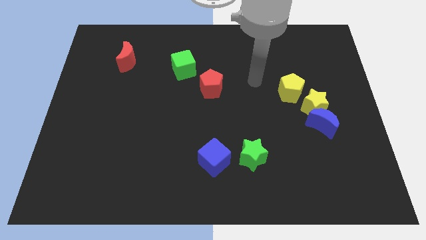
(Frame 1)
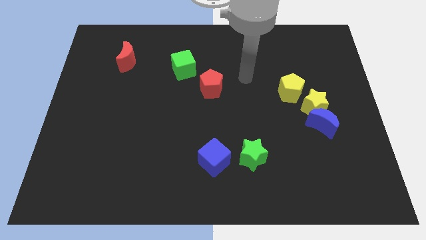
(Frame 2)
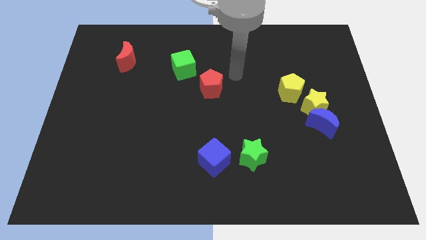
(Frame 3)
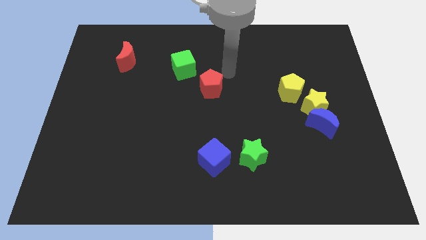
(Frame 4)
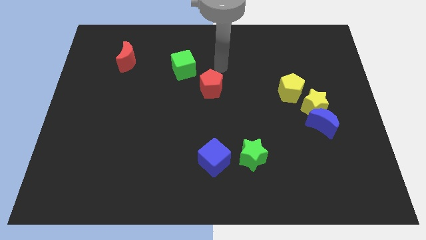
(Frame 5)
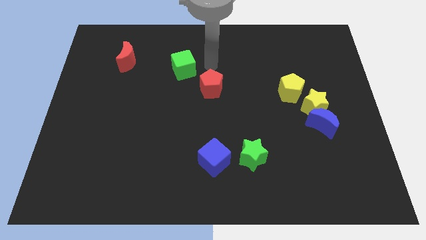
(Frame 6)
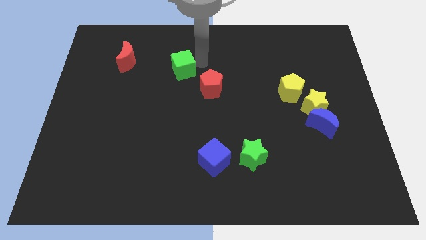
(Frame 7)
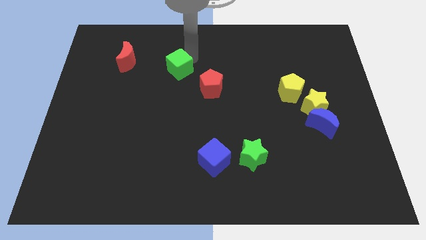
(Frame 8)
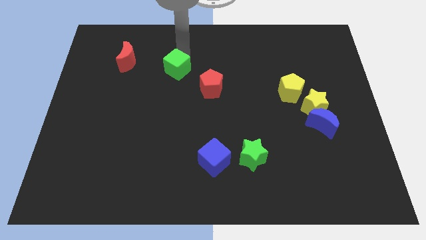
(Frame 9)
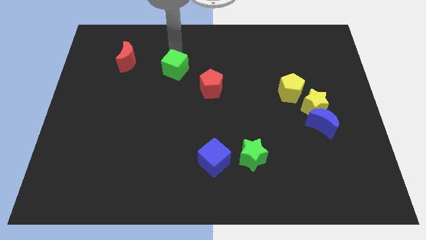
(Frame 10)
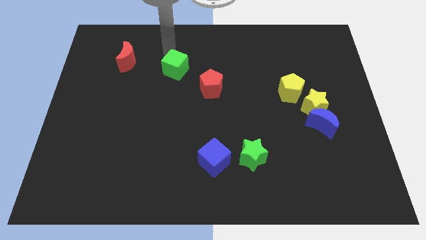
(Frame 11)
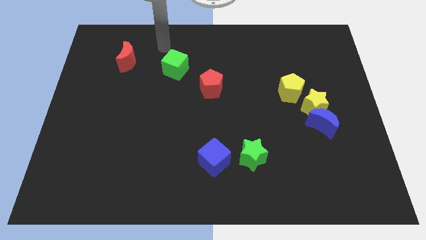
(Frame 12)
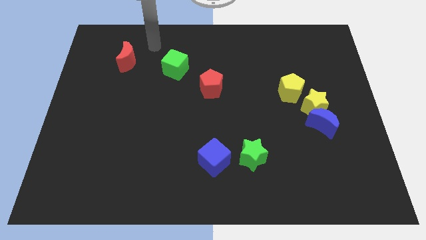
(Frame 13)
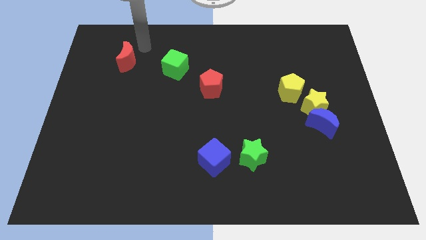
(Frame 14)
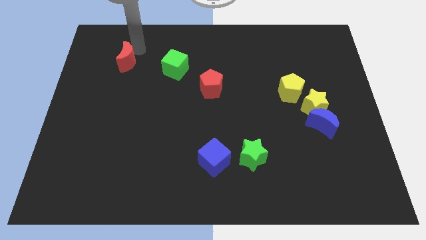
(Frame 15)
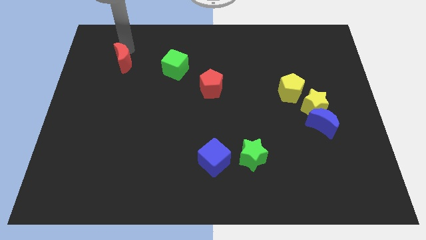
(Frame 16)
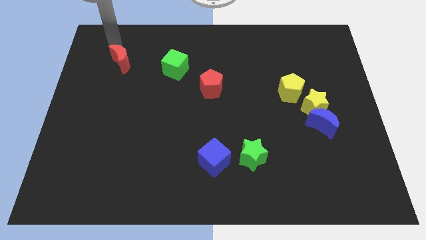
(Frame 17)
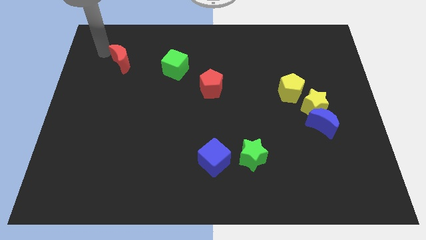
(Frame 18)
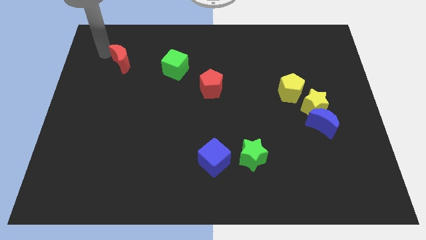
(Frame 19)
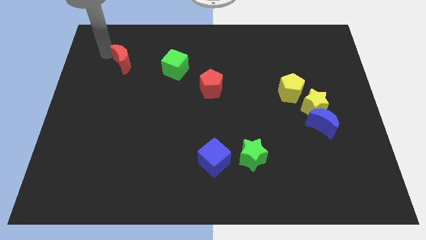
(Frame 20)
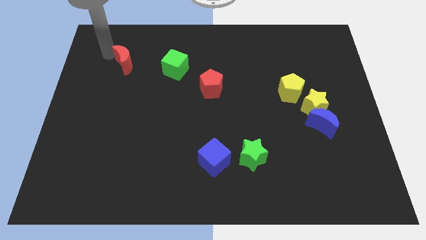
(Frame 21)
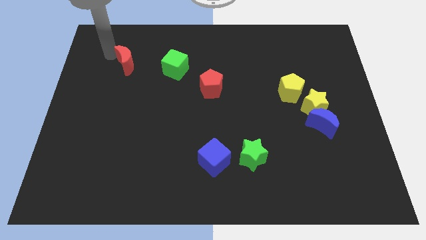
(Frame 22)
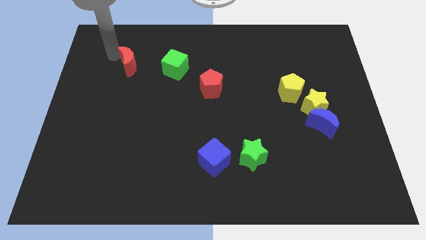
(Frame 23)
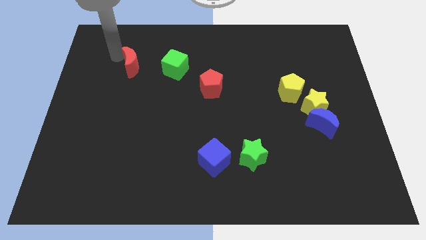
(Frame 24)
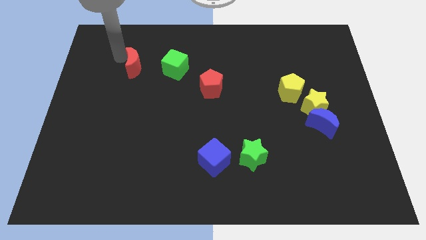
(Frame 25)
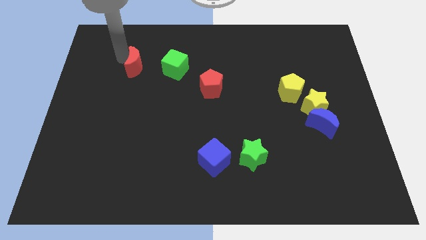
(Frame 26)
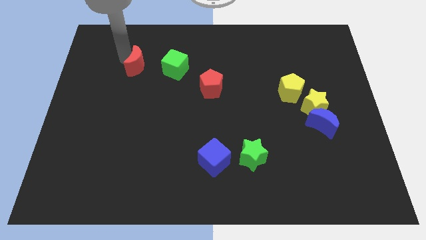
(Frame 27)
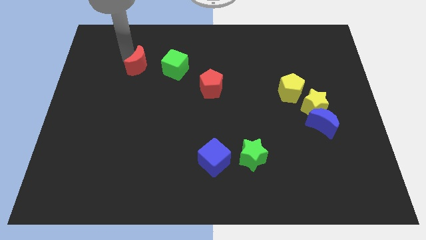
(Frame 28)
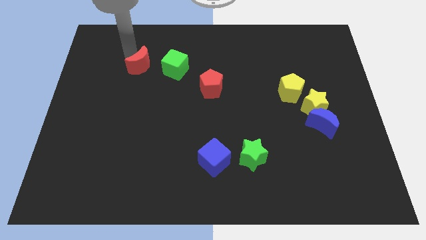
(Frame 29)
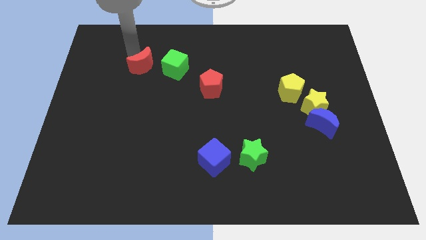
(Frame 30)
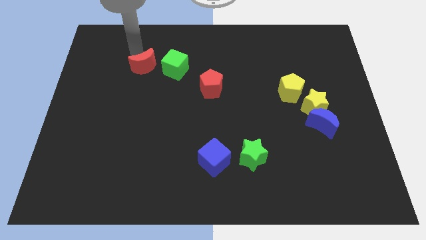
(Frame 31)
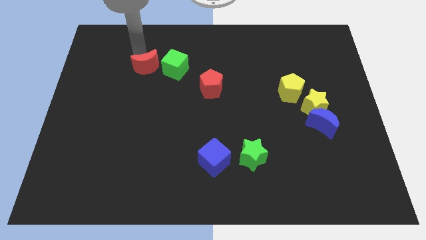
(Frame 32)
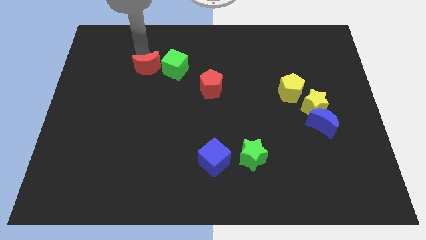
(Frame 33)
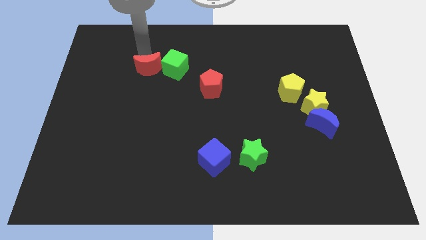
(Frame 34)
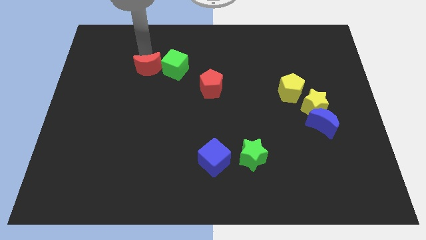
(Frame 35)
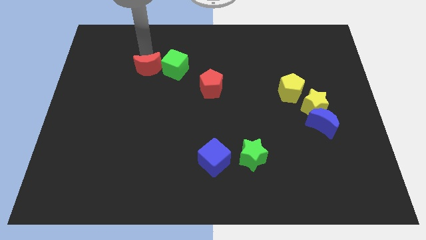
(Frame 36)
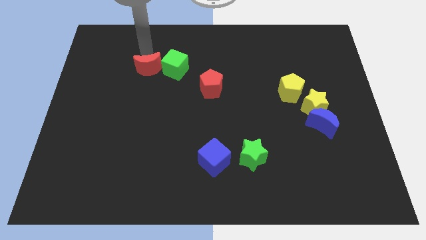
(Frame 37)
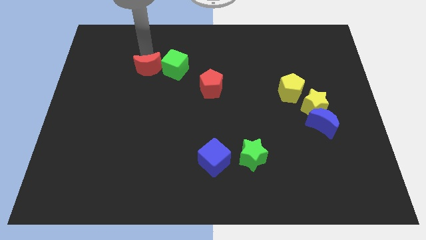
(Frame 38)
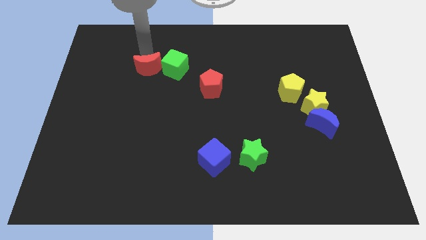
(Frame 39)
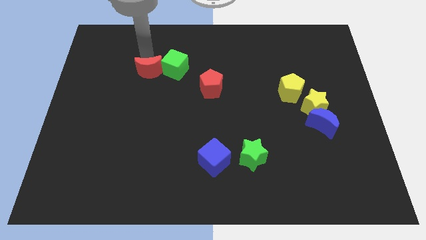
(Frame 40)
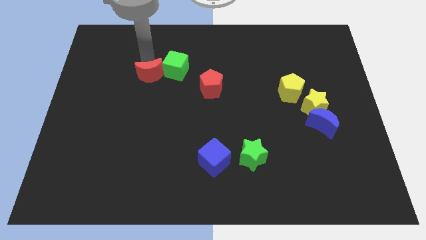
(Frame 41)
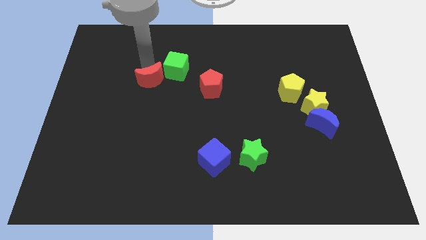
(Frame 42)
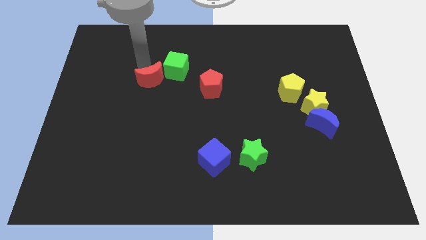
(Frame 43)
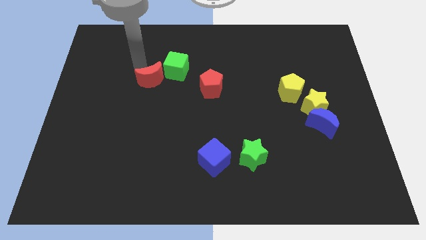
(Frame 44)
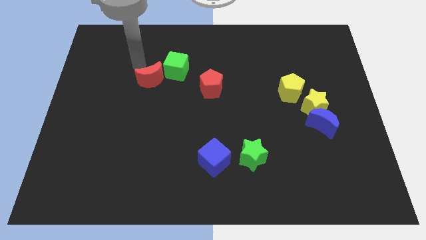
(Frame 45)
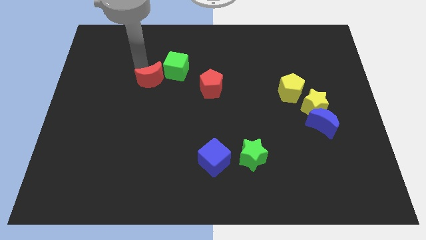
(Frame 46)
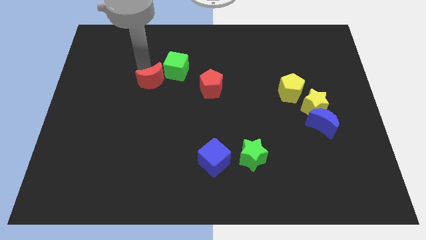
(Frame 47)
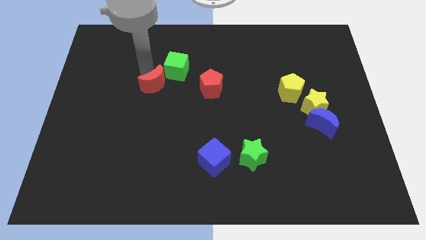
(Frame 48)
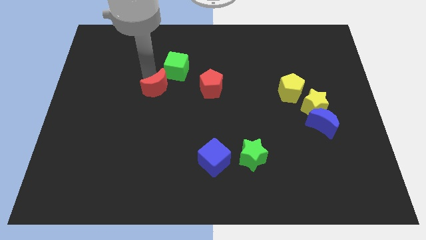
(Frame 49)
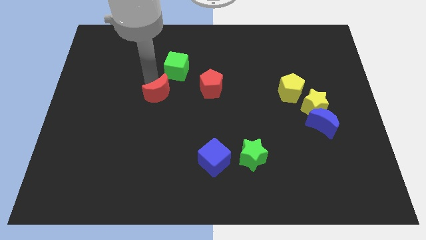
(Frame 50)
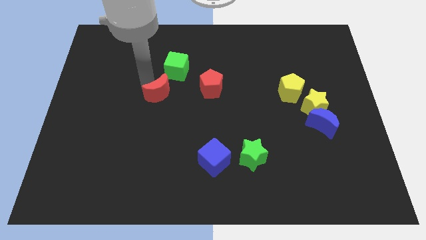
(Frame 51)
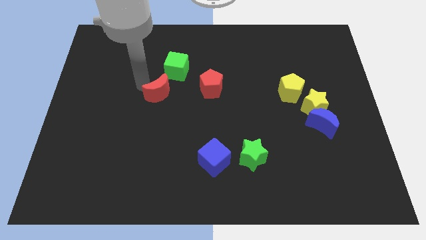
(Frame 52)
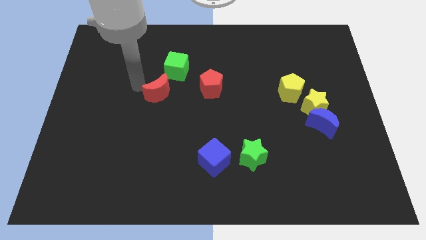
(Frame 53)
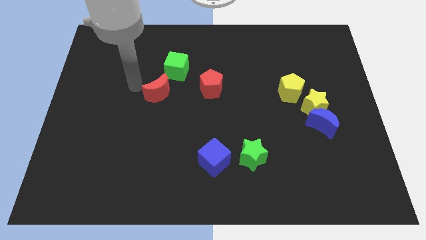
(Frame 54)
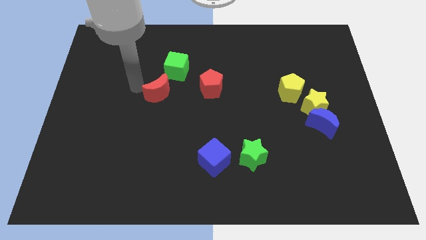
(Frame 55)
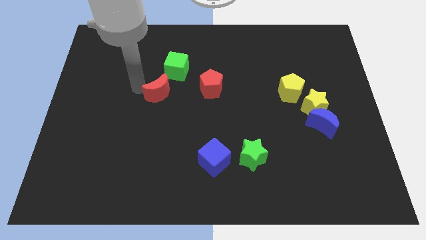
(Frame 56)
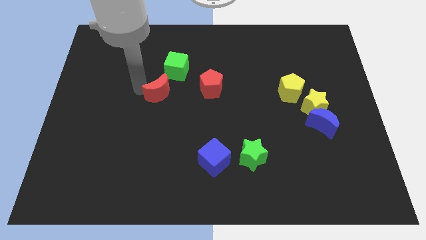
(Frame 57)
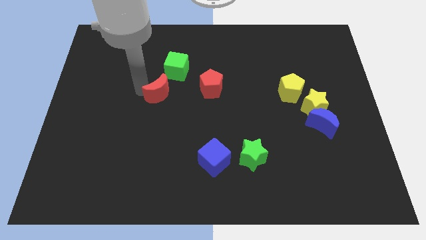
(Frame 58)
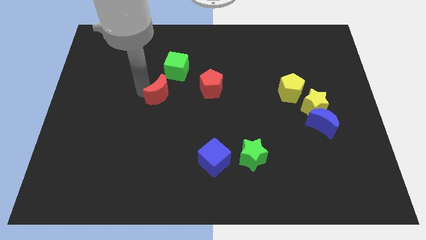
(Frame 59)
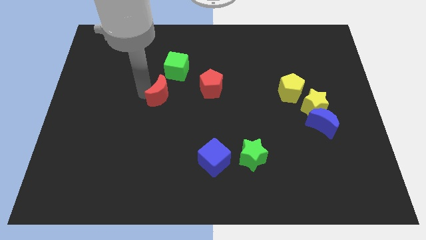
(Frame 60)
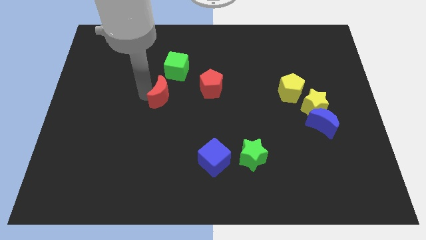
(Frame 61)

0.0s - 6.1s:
put the red moon to the center
